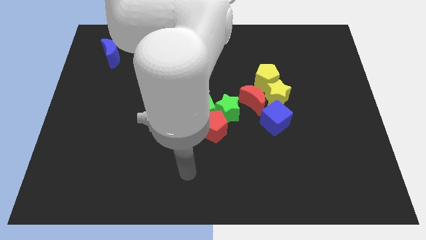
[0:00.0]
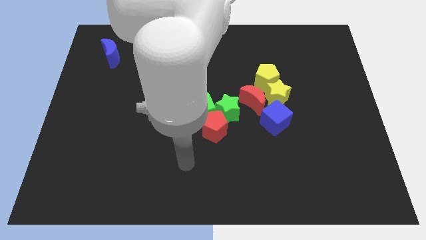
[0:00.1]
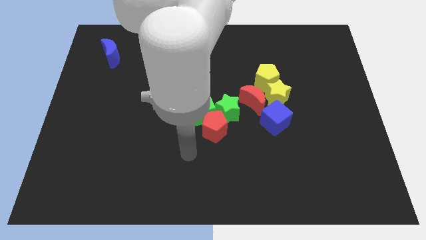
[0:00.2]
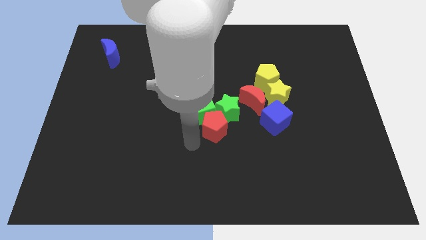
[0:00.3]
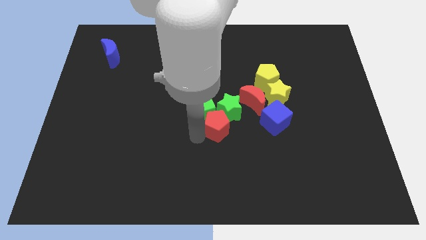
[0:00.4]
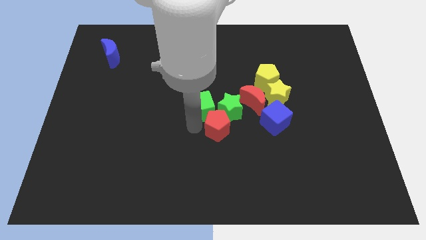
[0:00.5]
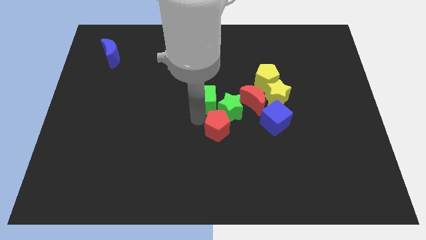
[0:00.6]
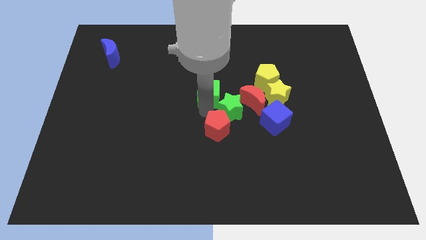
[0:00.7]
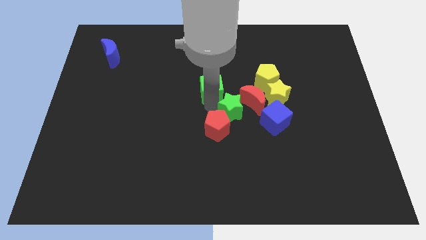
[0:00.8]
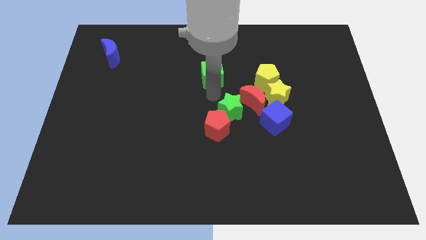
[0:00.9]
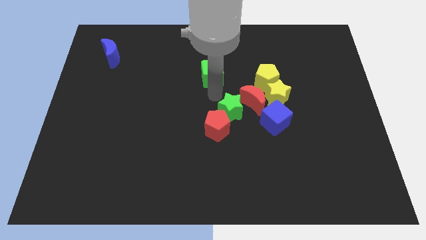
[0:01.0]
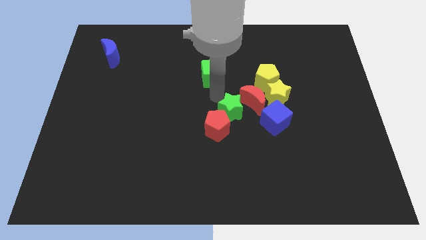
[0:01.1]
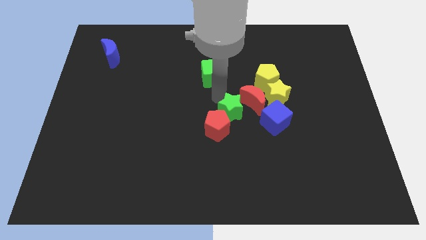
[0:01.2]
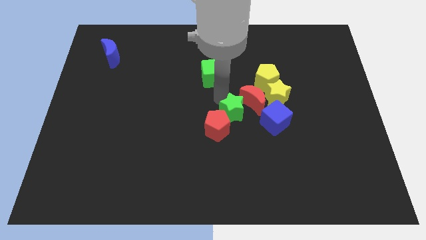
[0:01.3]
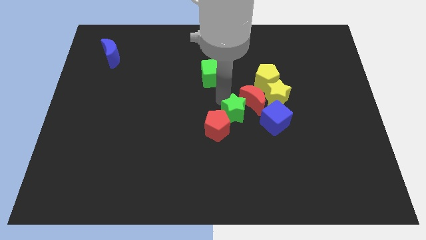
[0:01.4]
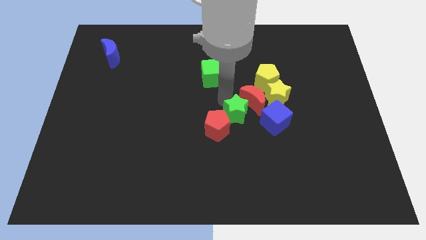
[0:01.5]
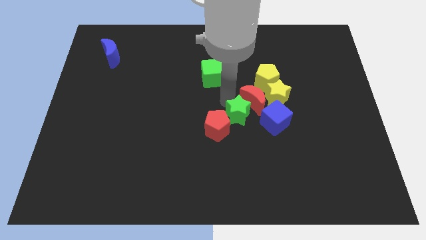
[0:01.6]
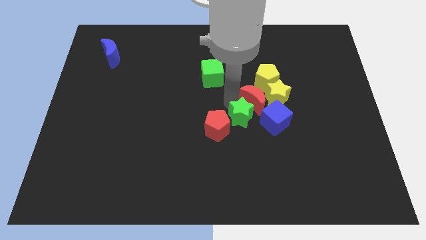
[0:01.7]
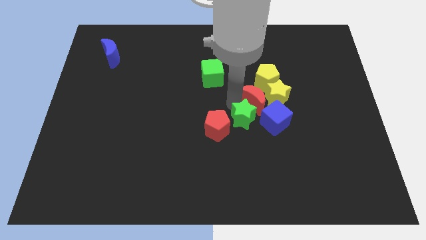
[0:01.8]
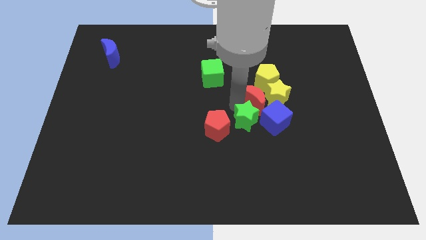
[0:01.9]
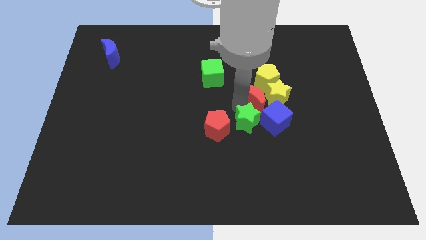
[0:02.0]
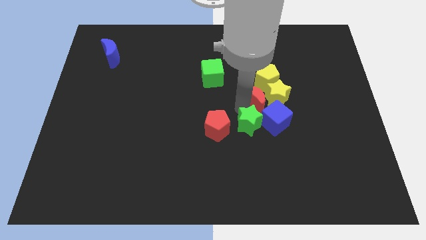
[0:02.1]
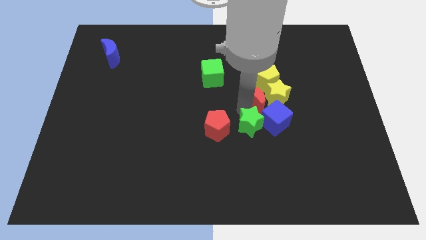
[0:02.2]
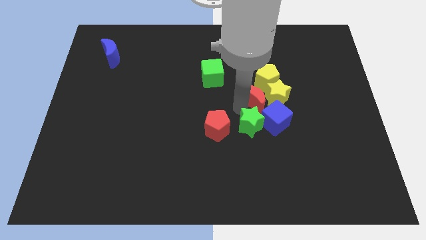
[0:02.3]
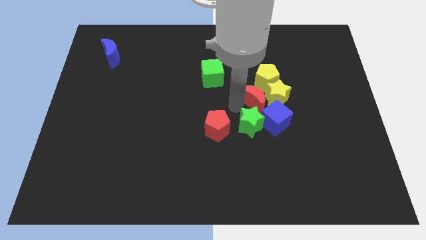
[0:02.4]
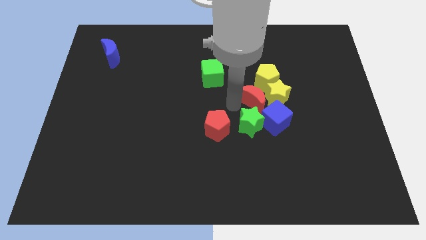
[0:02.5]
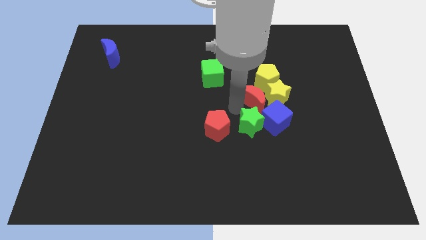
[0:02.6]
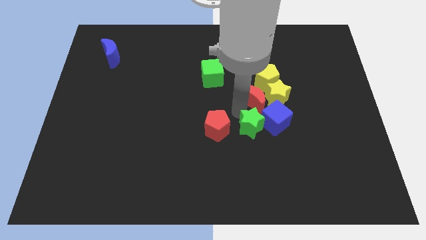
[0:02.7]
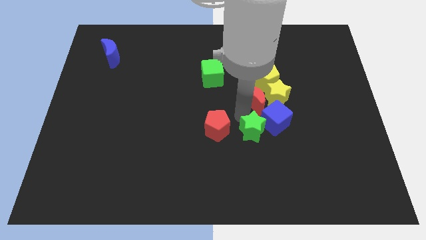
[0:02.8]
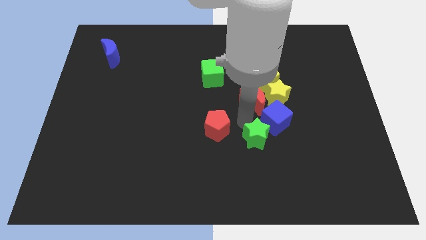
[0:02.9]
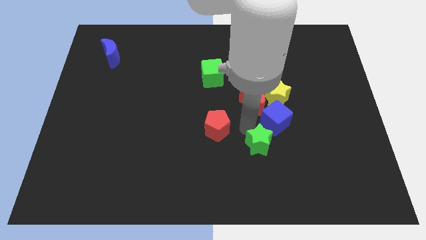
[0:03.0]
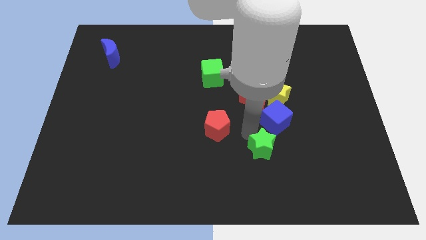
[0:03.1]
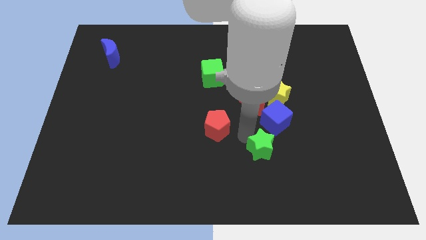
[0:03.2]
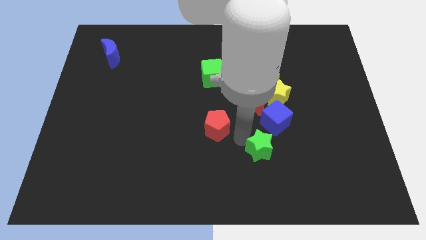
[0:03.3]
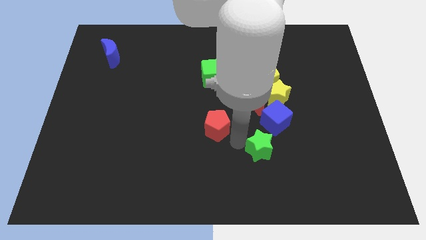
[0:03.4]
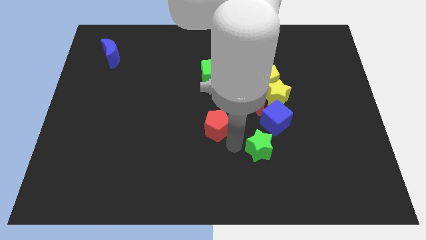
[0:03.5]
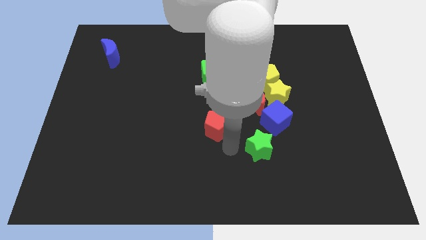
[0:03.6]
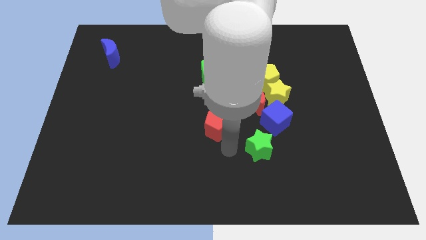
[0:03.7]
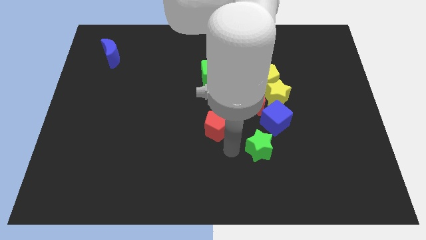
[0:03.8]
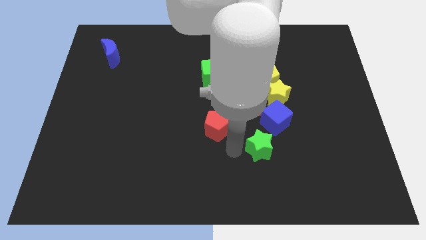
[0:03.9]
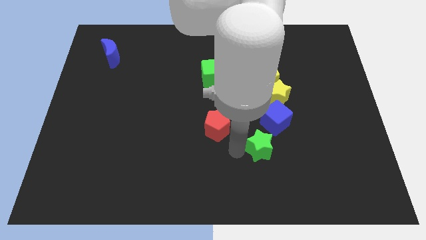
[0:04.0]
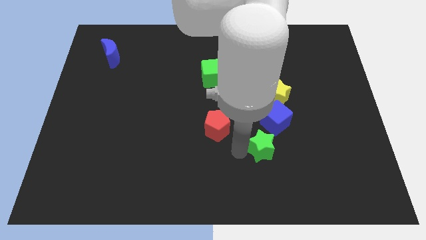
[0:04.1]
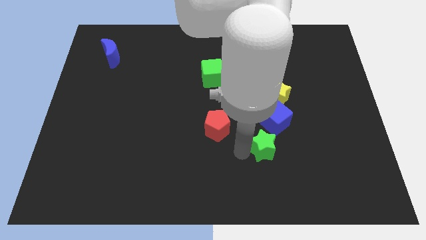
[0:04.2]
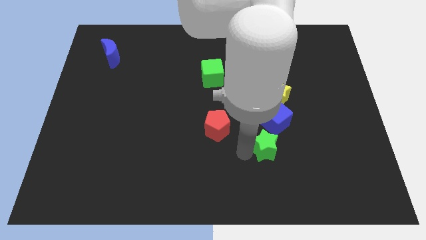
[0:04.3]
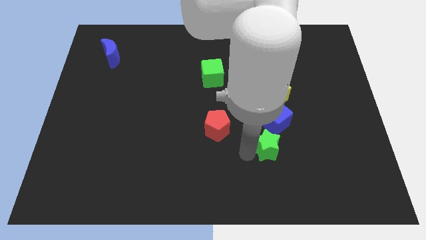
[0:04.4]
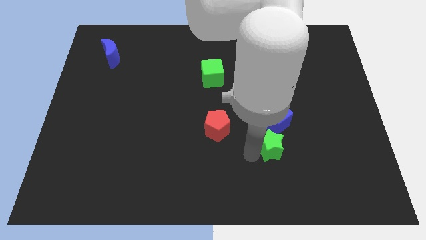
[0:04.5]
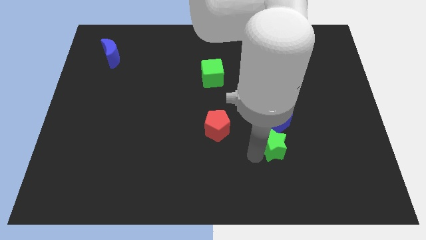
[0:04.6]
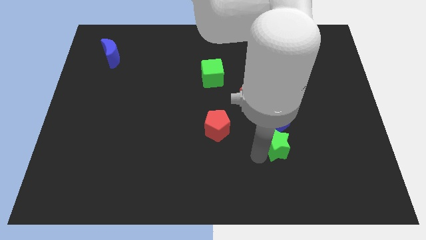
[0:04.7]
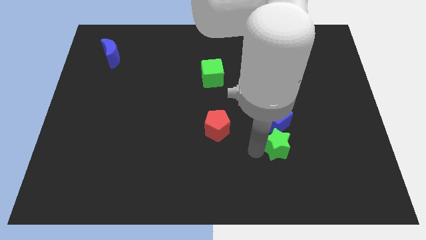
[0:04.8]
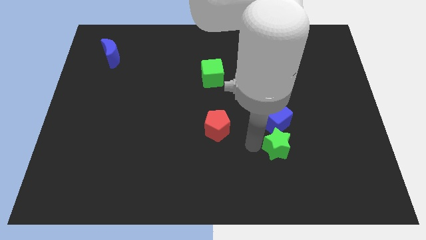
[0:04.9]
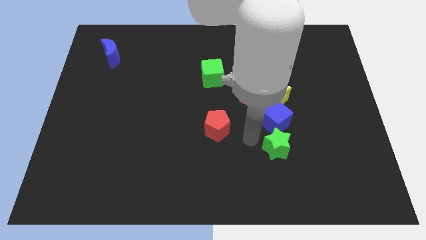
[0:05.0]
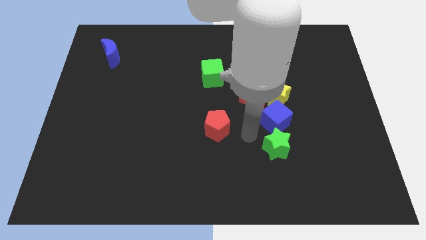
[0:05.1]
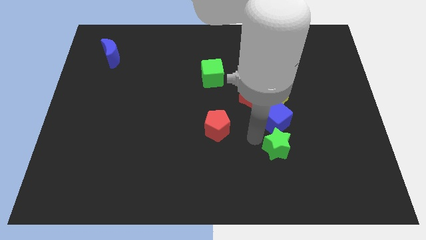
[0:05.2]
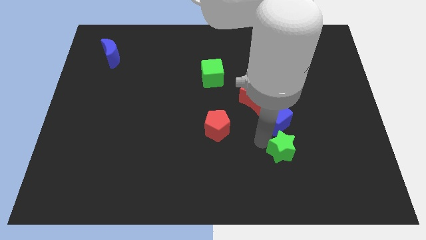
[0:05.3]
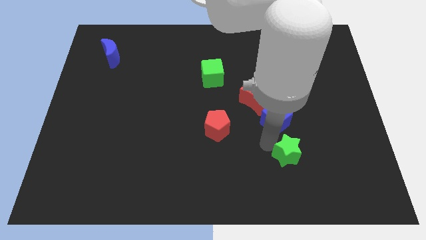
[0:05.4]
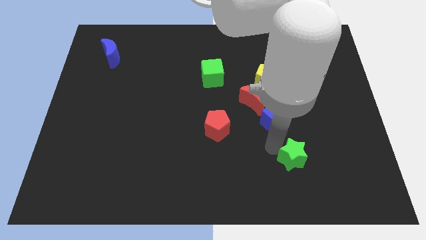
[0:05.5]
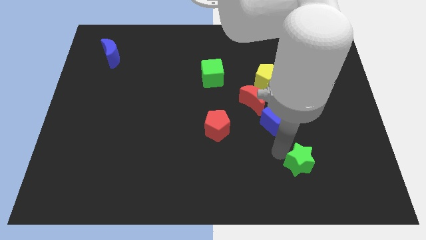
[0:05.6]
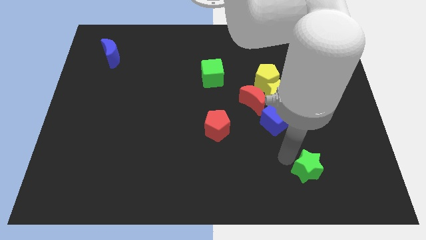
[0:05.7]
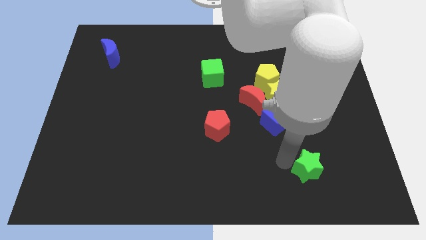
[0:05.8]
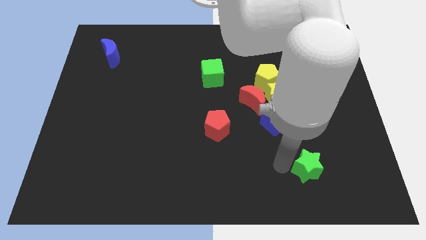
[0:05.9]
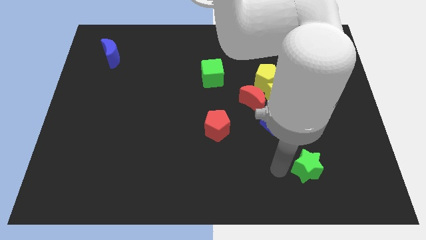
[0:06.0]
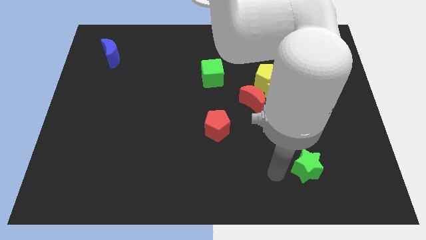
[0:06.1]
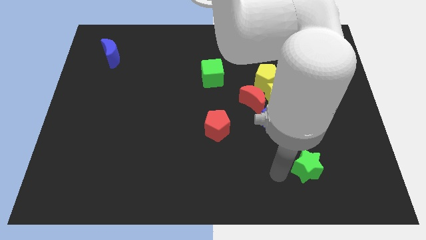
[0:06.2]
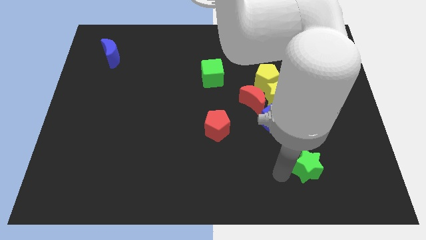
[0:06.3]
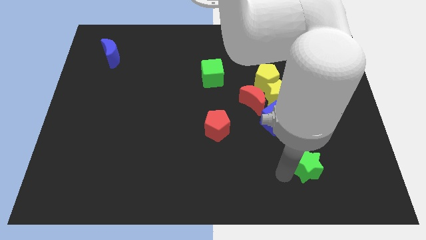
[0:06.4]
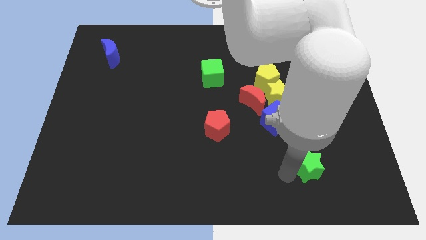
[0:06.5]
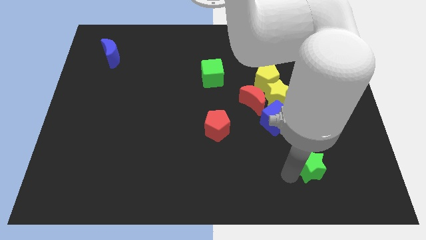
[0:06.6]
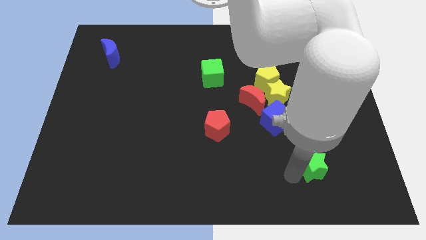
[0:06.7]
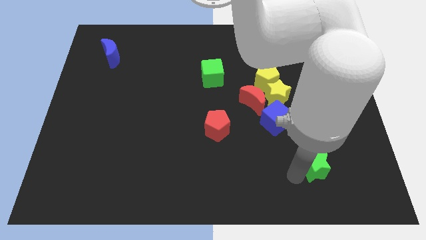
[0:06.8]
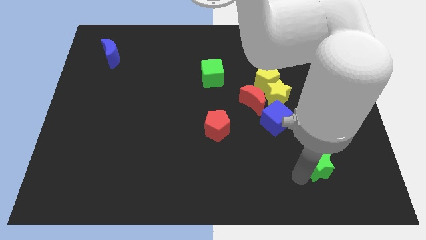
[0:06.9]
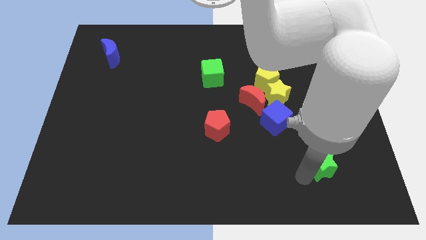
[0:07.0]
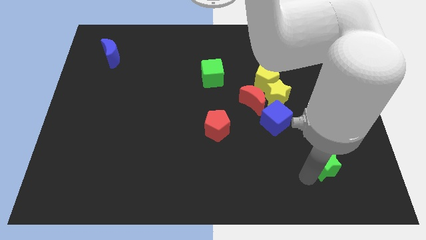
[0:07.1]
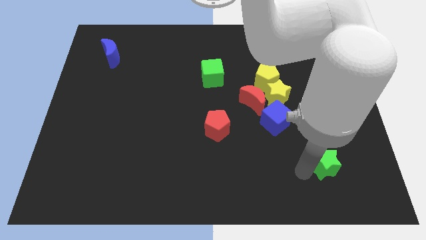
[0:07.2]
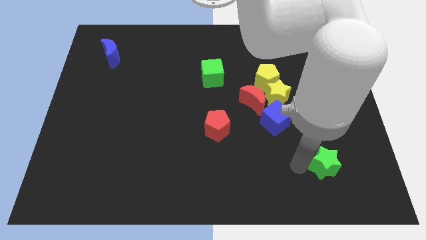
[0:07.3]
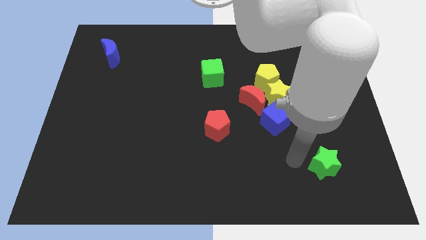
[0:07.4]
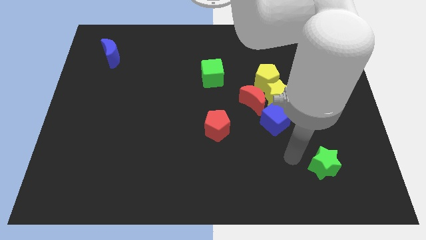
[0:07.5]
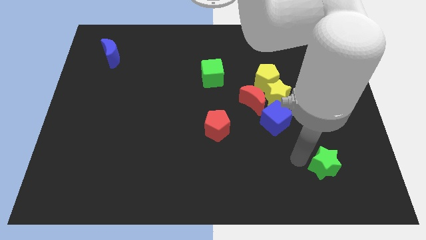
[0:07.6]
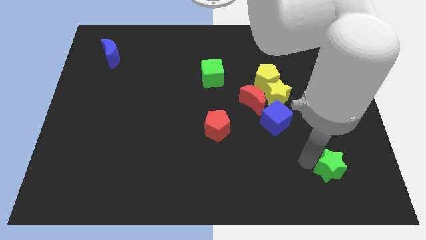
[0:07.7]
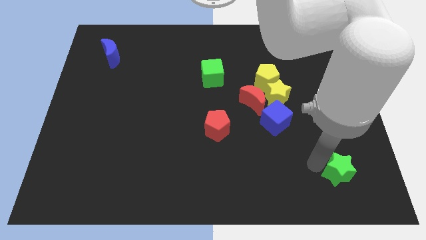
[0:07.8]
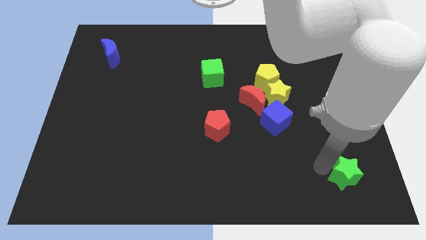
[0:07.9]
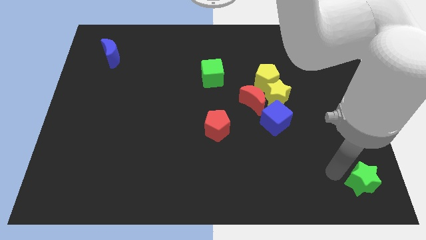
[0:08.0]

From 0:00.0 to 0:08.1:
put the green star to the bottom right corner
